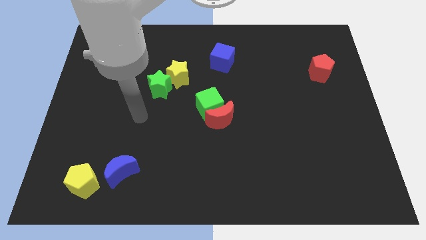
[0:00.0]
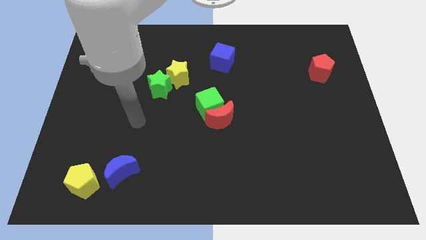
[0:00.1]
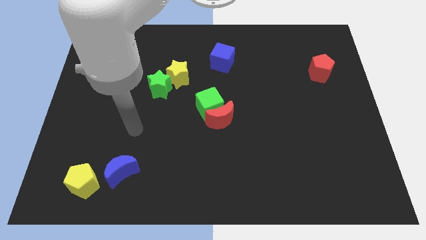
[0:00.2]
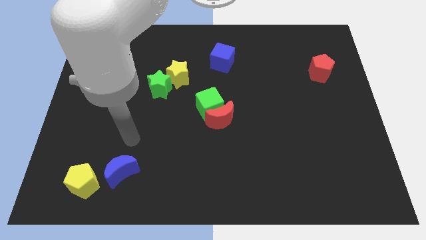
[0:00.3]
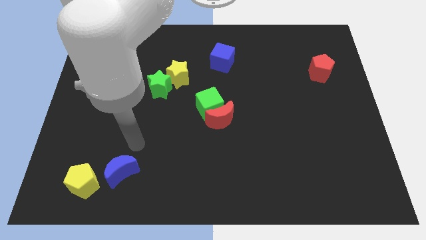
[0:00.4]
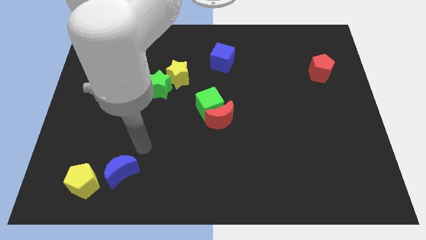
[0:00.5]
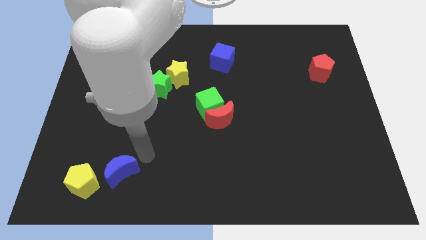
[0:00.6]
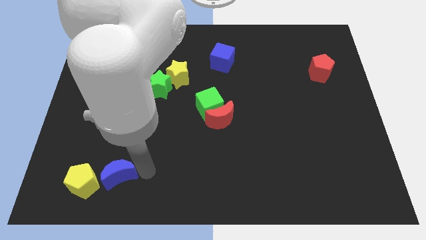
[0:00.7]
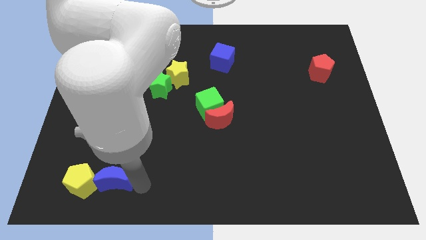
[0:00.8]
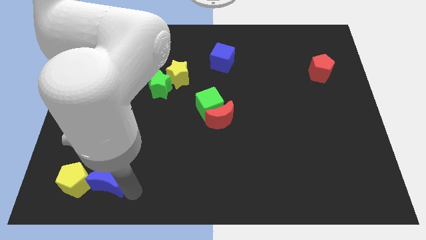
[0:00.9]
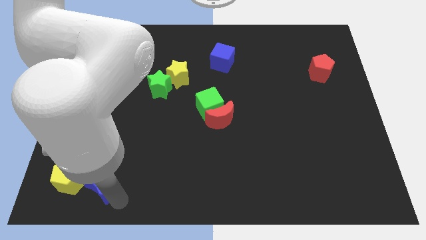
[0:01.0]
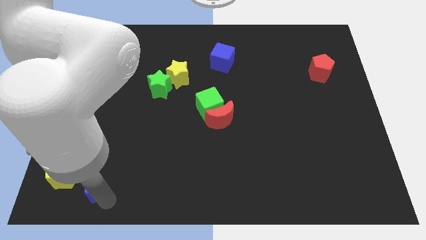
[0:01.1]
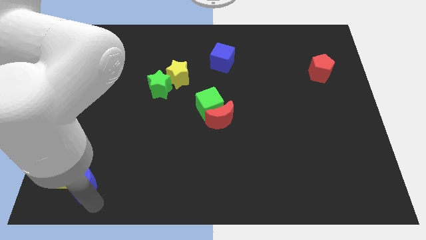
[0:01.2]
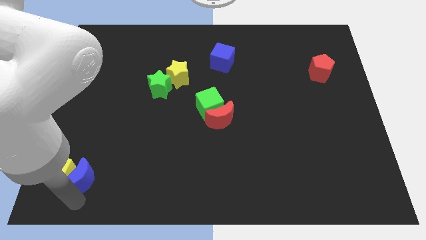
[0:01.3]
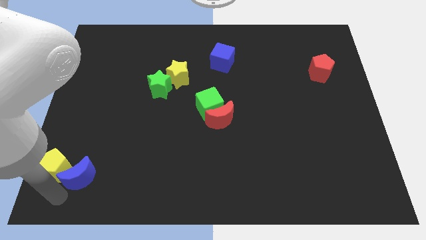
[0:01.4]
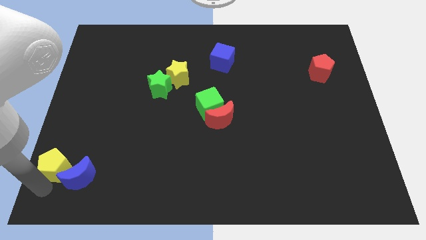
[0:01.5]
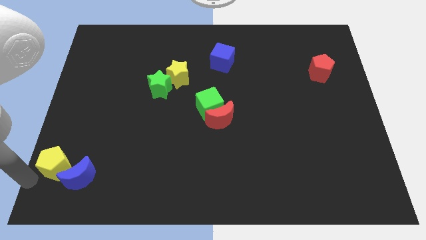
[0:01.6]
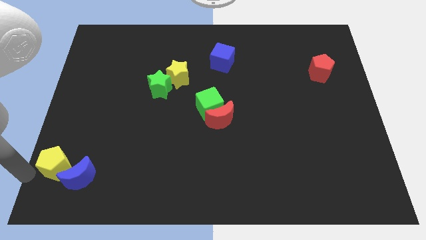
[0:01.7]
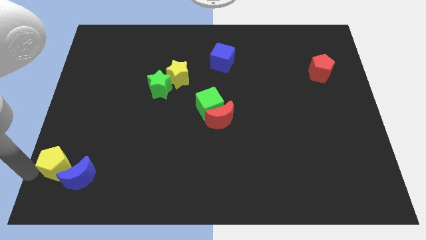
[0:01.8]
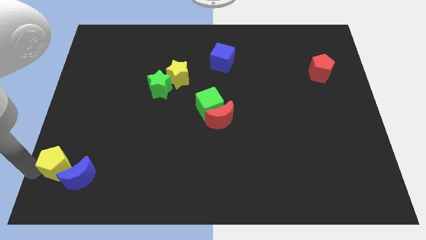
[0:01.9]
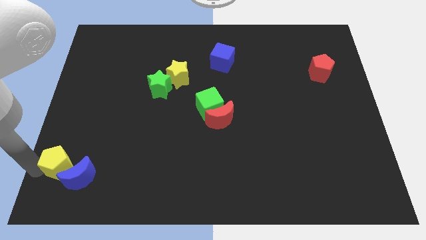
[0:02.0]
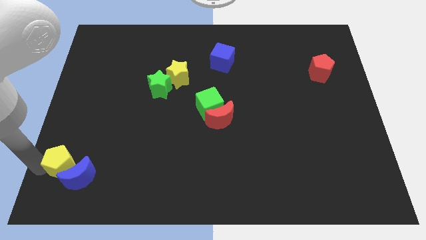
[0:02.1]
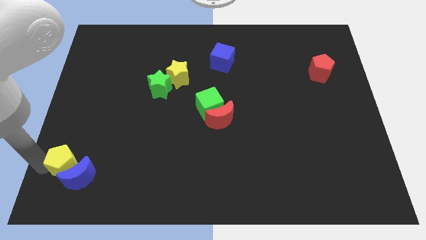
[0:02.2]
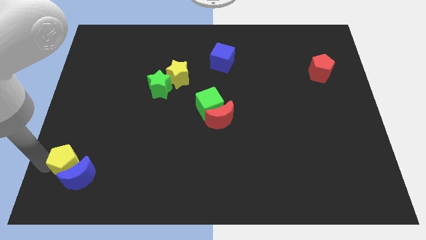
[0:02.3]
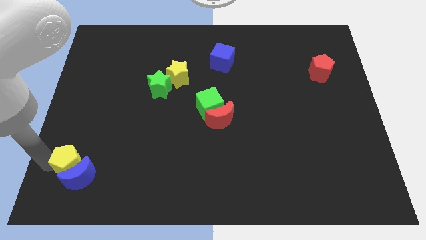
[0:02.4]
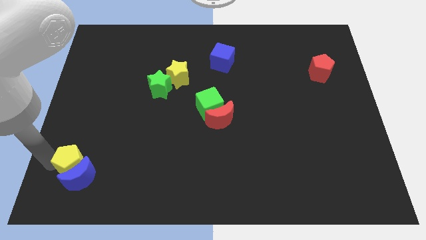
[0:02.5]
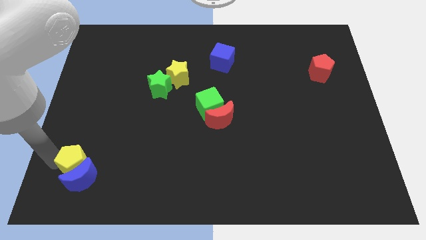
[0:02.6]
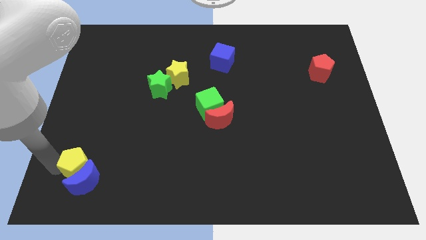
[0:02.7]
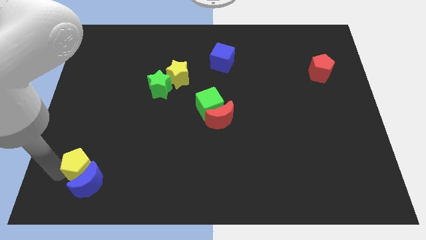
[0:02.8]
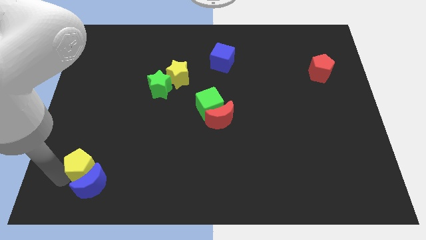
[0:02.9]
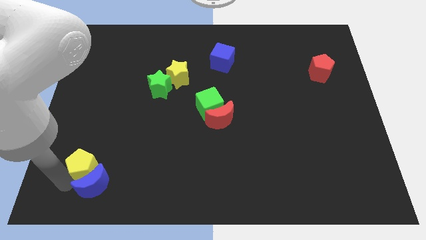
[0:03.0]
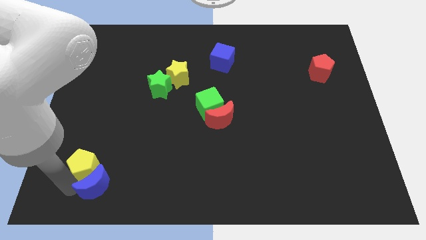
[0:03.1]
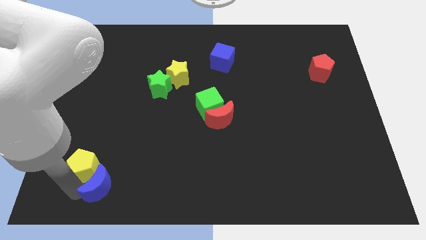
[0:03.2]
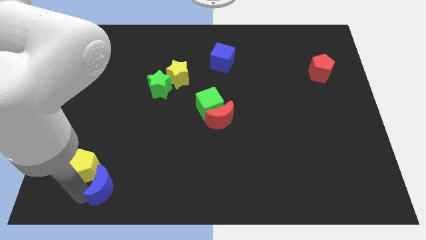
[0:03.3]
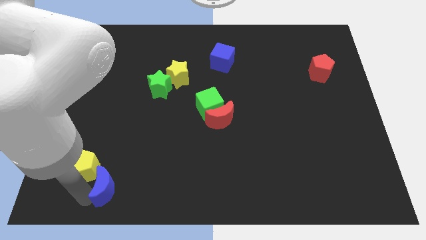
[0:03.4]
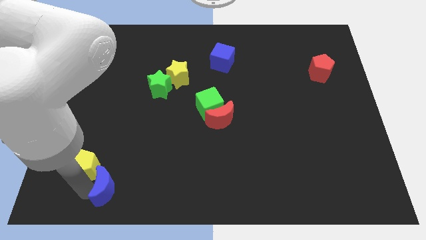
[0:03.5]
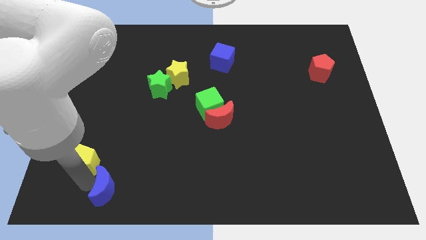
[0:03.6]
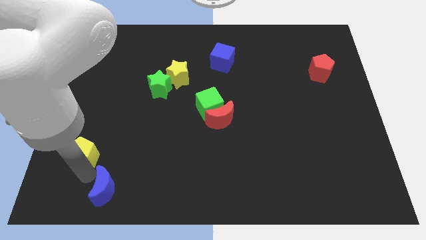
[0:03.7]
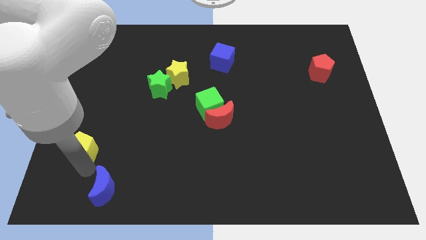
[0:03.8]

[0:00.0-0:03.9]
slightly push the yellow pentagon up

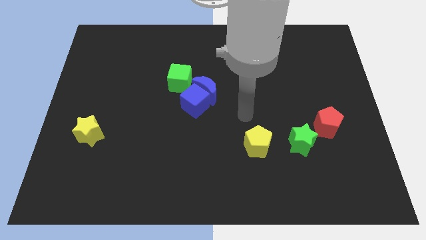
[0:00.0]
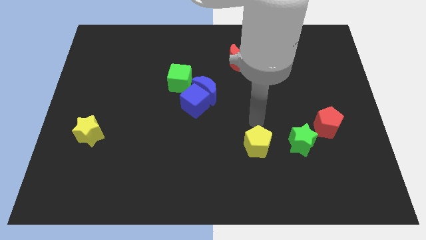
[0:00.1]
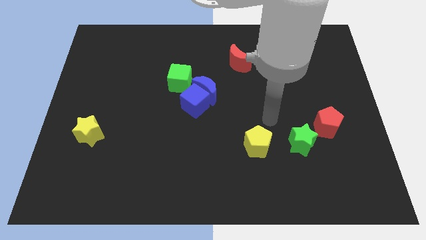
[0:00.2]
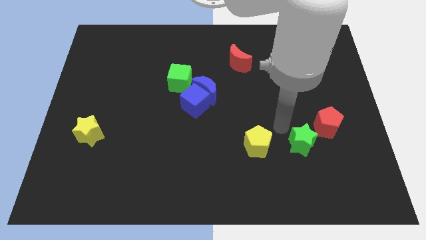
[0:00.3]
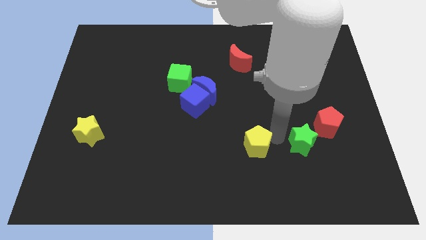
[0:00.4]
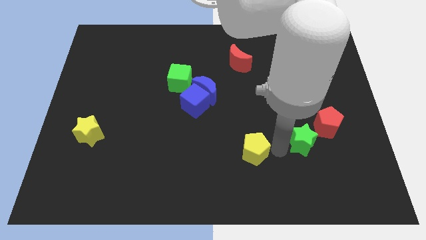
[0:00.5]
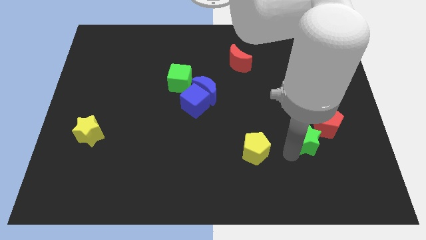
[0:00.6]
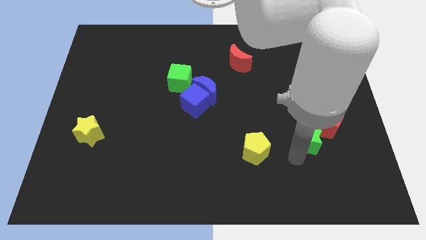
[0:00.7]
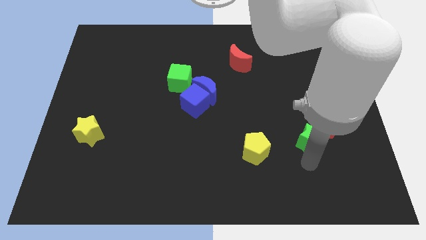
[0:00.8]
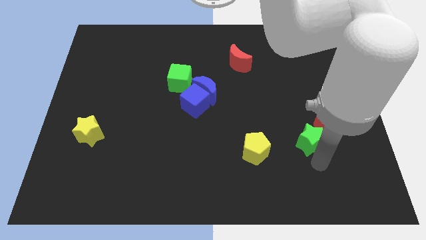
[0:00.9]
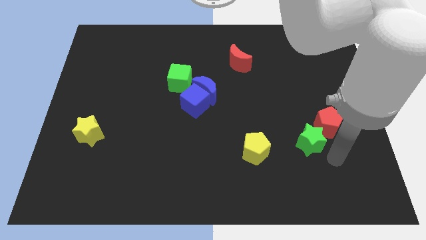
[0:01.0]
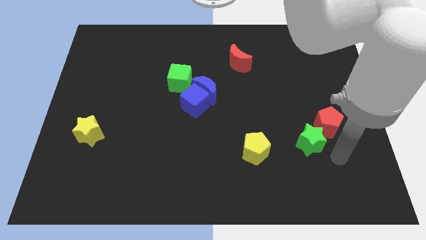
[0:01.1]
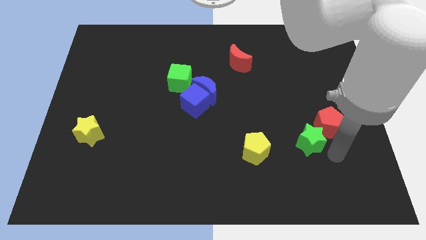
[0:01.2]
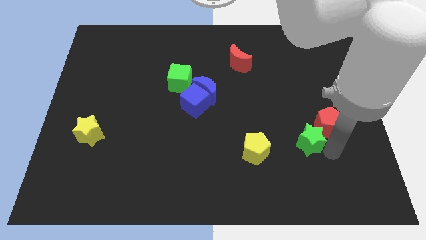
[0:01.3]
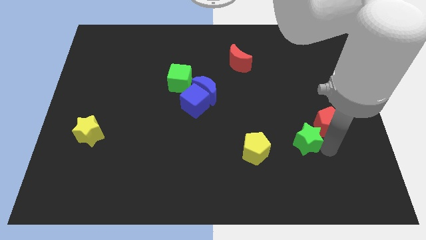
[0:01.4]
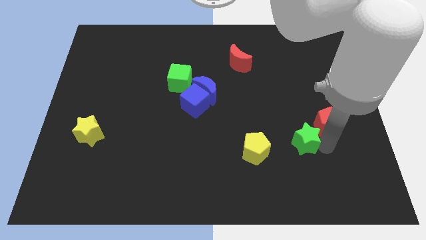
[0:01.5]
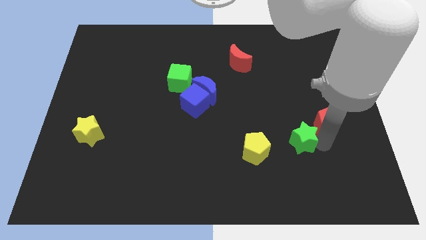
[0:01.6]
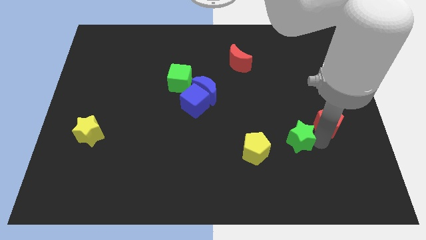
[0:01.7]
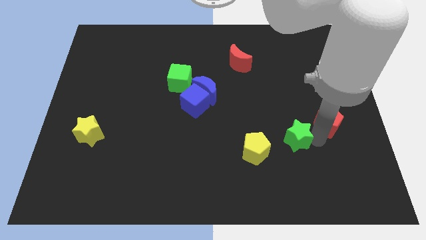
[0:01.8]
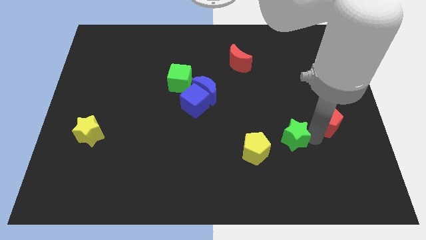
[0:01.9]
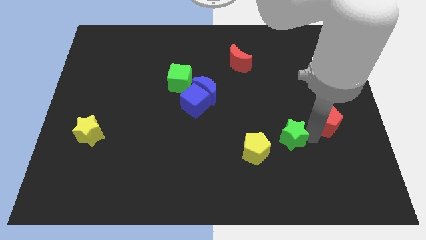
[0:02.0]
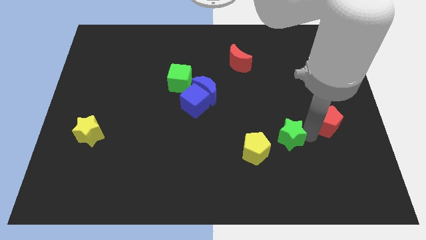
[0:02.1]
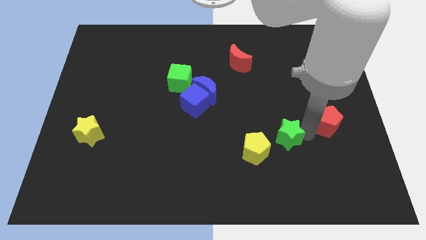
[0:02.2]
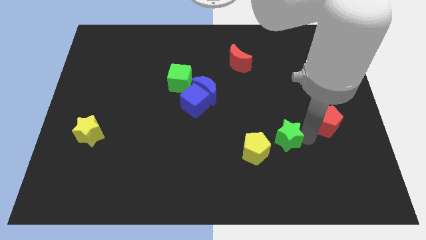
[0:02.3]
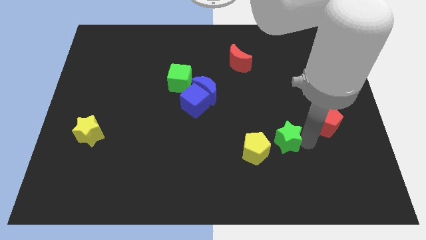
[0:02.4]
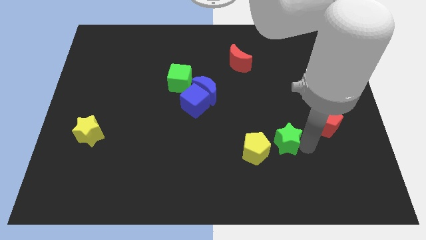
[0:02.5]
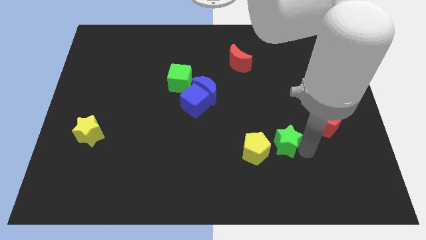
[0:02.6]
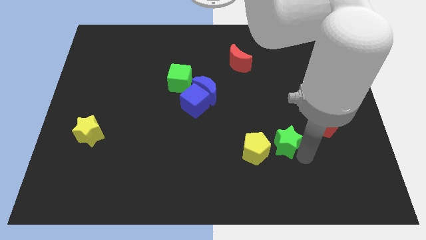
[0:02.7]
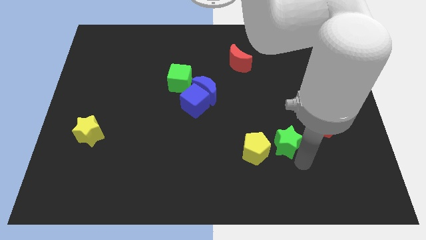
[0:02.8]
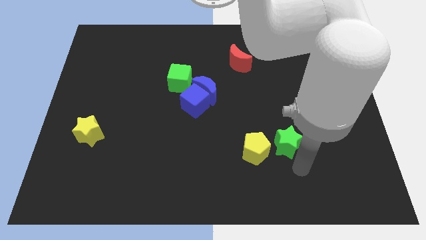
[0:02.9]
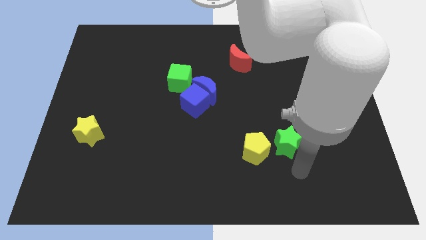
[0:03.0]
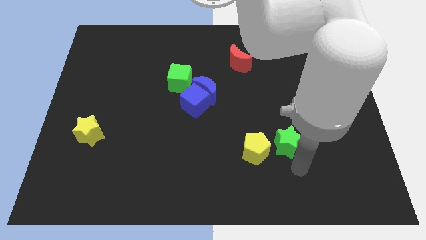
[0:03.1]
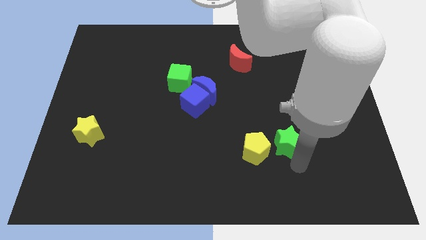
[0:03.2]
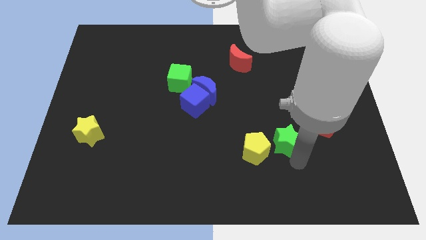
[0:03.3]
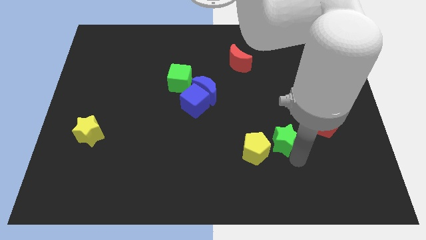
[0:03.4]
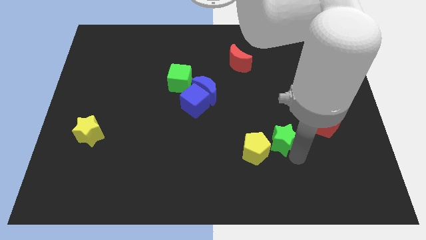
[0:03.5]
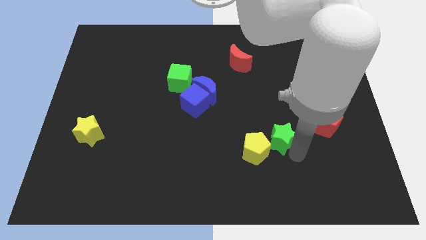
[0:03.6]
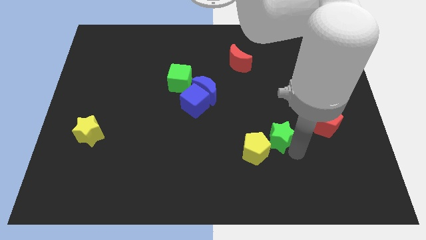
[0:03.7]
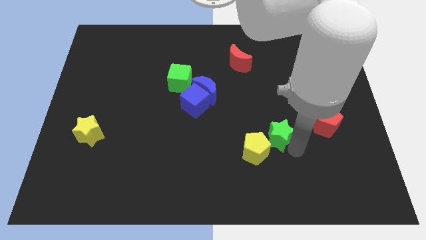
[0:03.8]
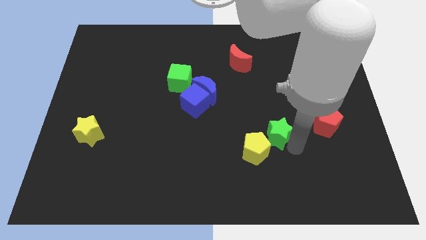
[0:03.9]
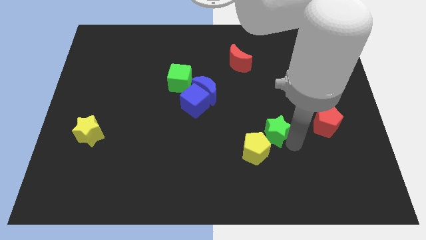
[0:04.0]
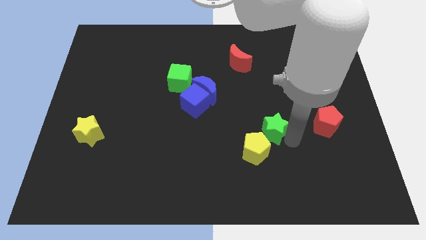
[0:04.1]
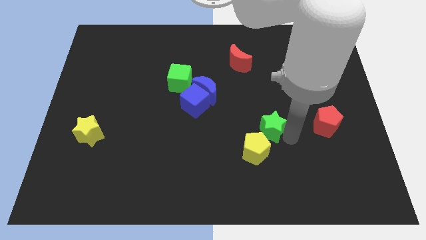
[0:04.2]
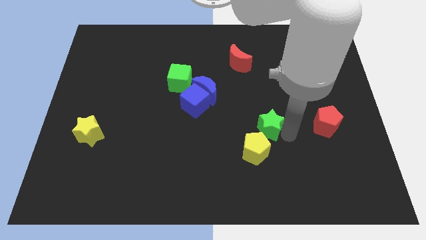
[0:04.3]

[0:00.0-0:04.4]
slightly push the green star upwards and to the left diagonally

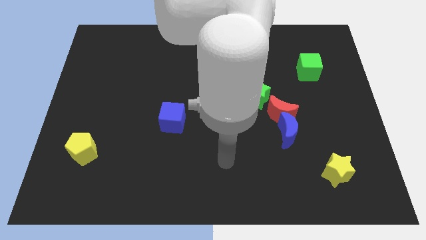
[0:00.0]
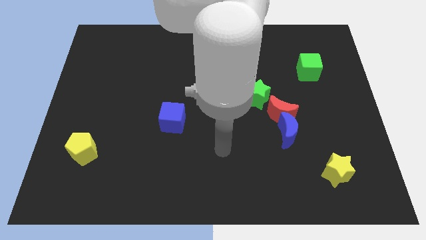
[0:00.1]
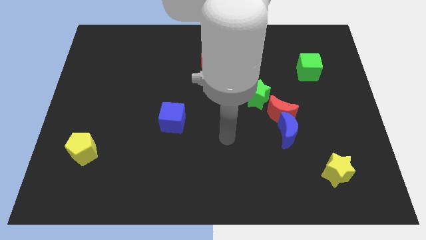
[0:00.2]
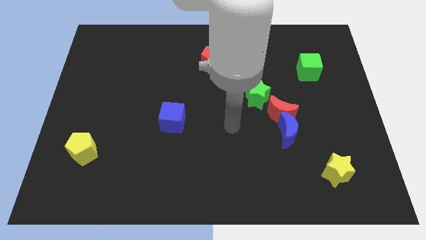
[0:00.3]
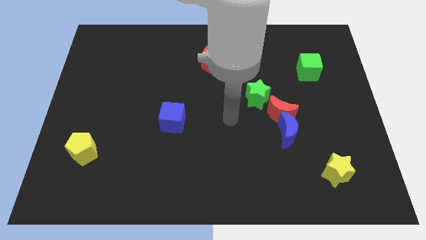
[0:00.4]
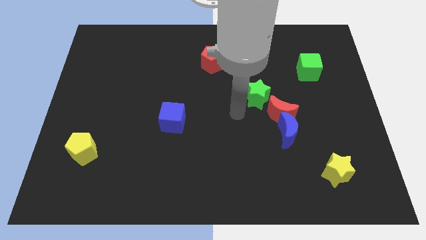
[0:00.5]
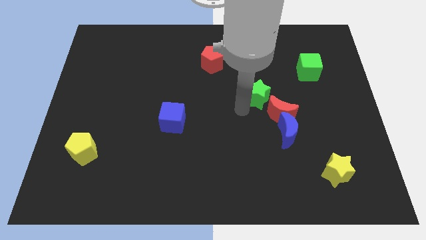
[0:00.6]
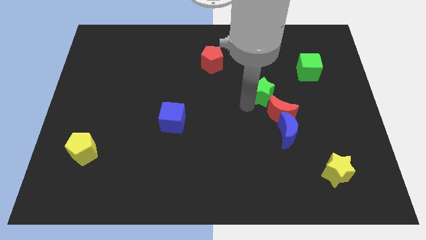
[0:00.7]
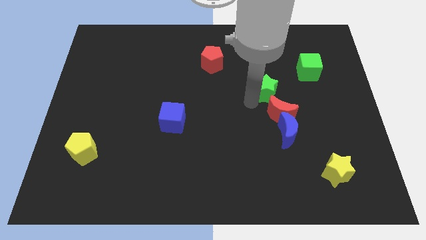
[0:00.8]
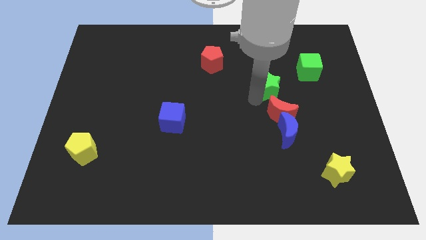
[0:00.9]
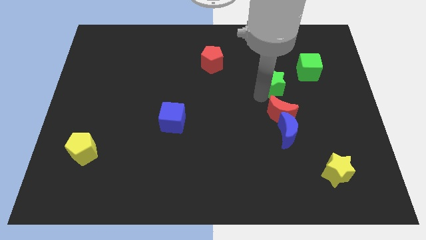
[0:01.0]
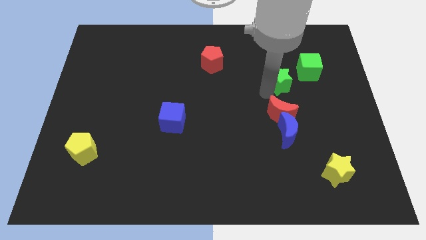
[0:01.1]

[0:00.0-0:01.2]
slide the green star up and then right somewhat
